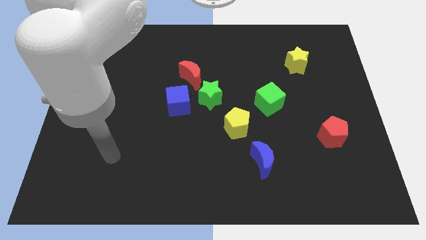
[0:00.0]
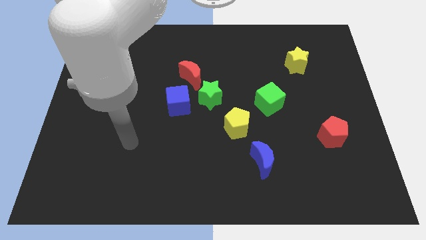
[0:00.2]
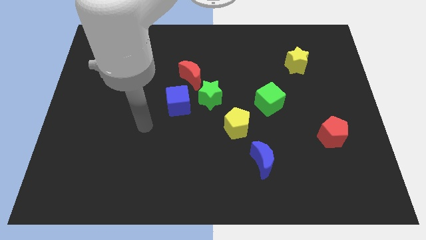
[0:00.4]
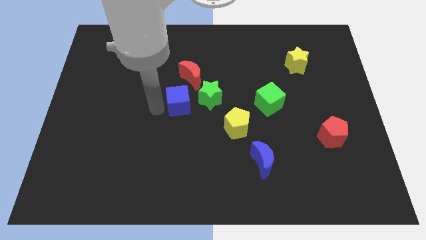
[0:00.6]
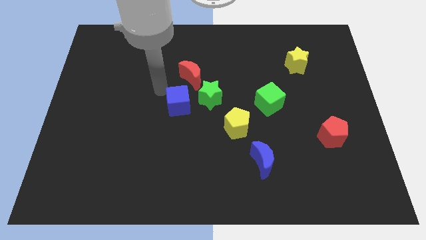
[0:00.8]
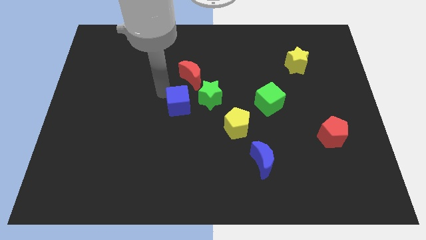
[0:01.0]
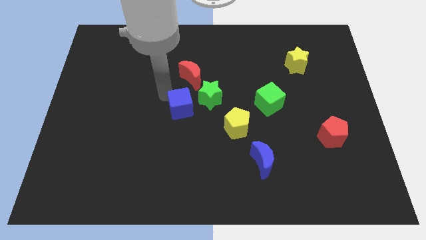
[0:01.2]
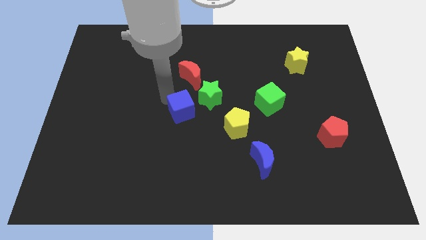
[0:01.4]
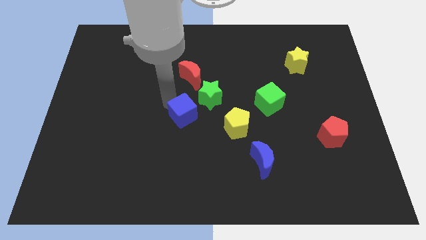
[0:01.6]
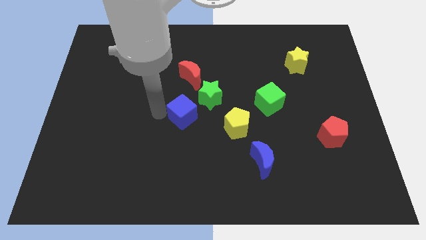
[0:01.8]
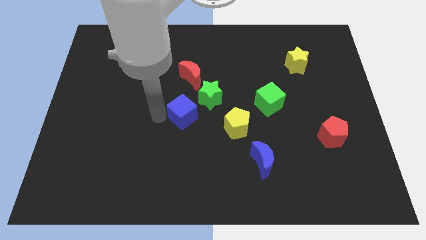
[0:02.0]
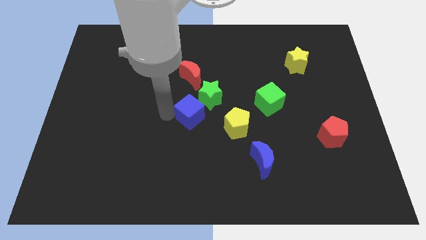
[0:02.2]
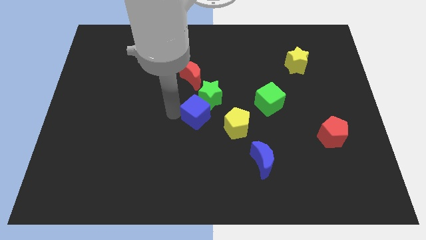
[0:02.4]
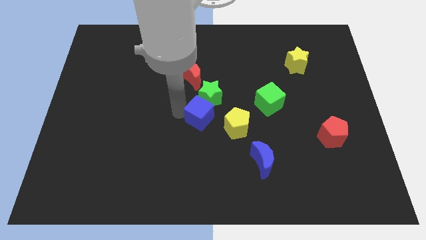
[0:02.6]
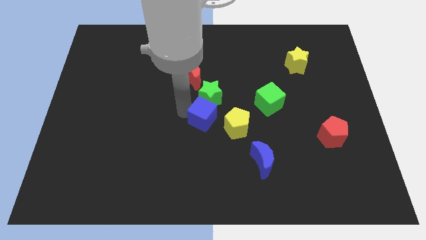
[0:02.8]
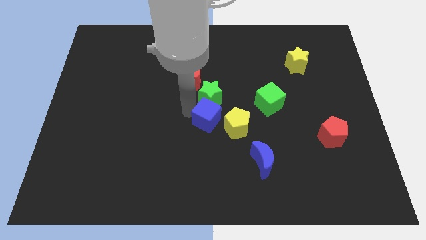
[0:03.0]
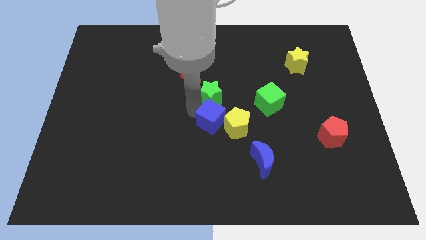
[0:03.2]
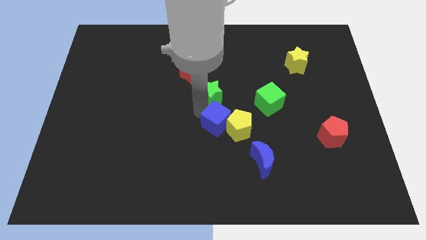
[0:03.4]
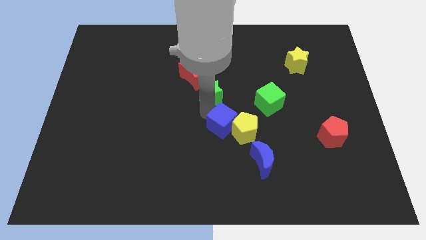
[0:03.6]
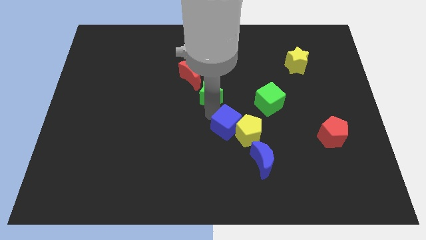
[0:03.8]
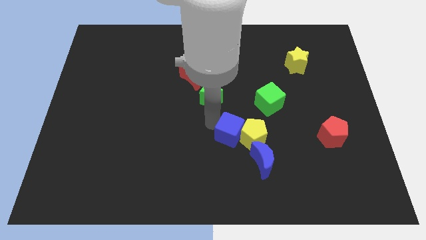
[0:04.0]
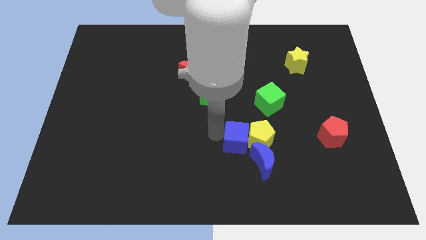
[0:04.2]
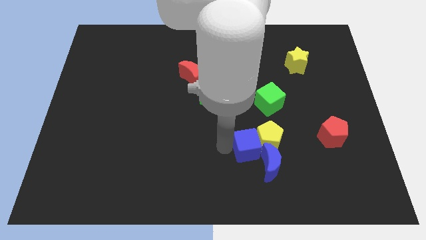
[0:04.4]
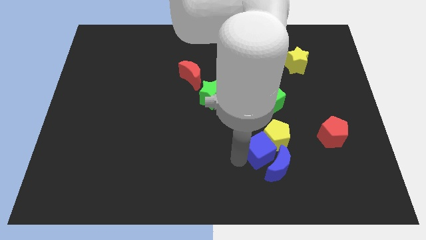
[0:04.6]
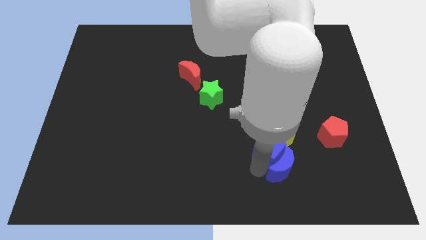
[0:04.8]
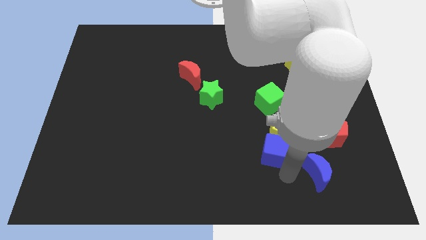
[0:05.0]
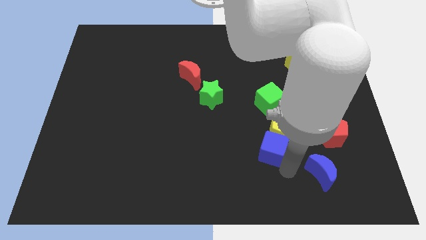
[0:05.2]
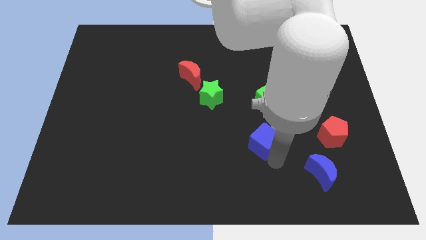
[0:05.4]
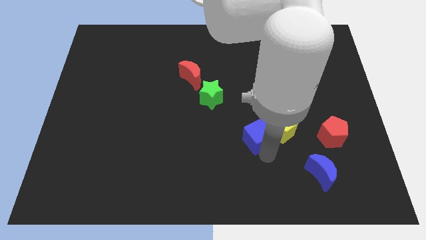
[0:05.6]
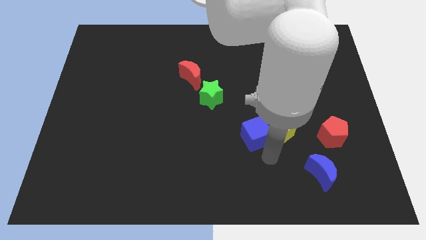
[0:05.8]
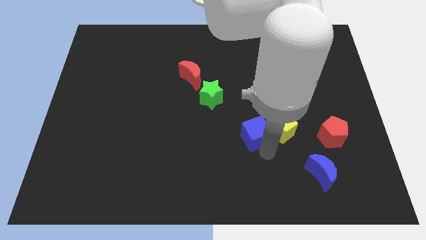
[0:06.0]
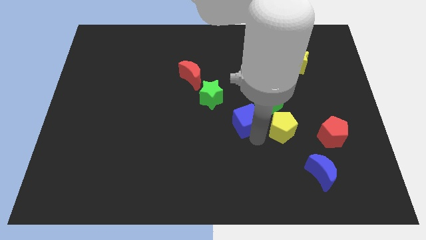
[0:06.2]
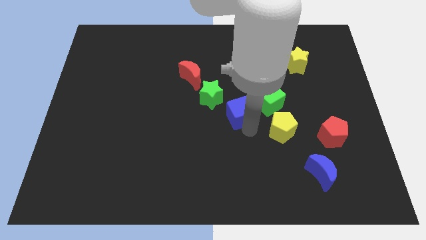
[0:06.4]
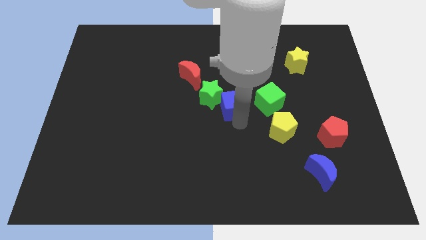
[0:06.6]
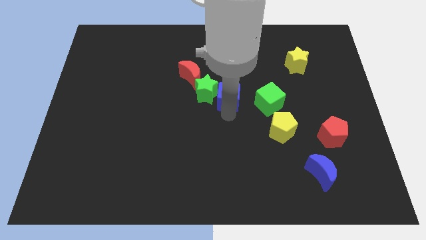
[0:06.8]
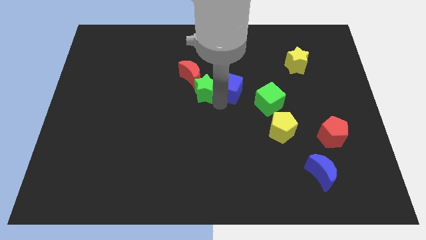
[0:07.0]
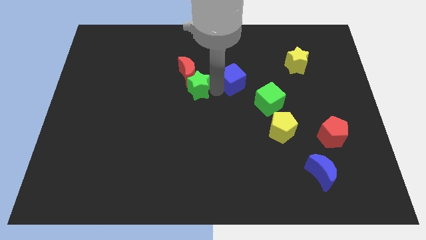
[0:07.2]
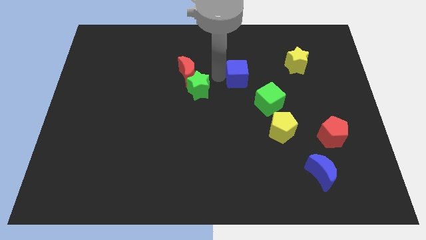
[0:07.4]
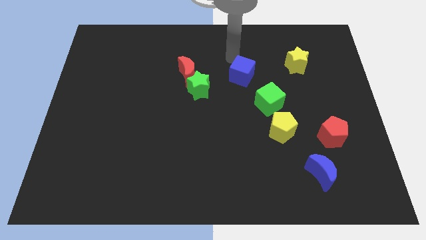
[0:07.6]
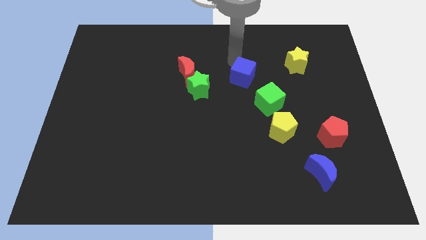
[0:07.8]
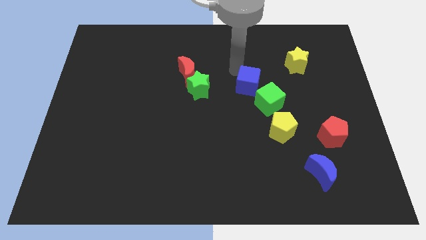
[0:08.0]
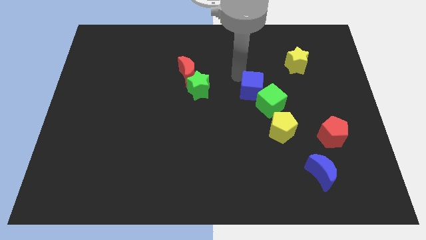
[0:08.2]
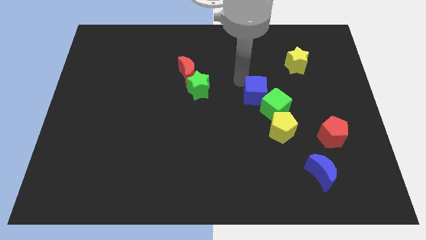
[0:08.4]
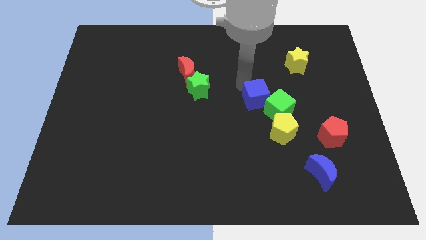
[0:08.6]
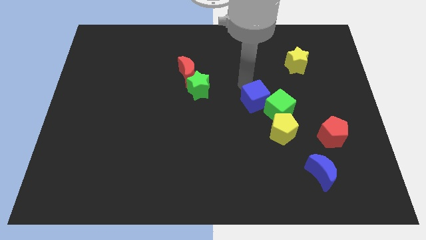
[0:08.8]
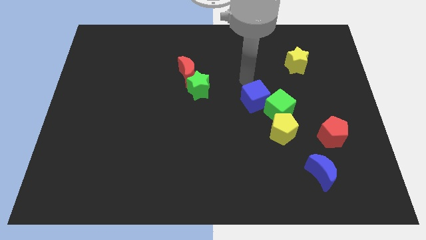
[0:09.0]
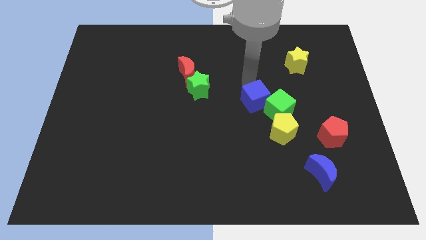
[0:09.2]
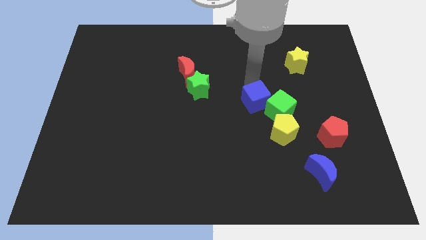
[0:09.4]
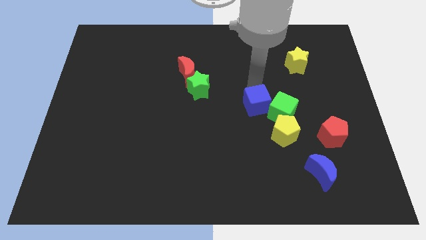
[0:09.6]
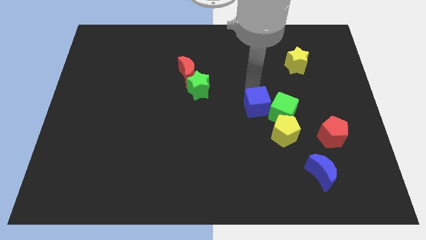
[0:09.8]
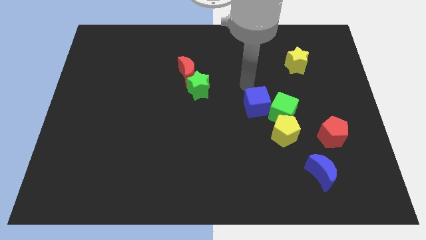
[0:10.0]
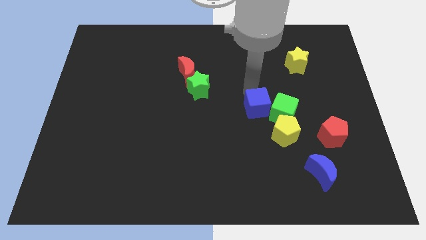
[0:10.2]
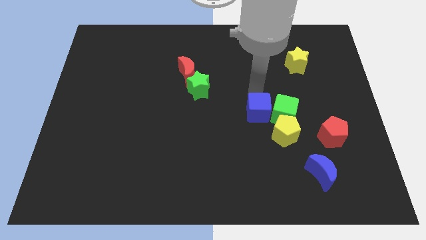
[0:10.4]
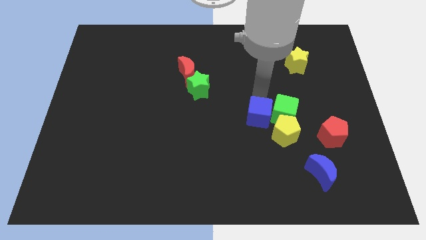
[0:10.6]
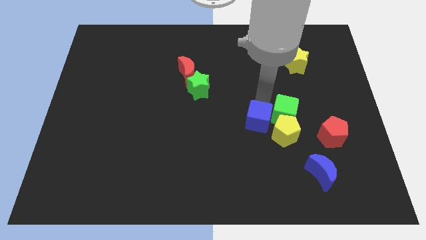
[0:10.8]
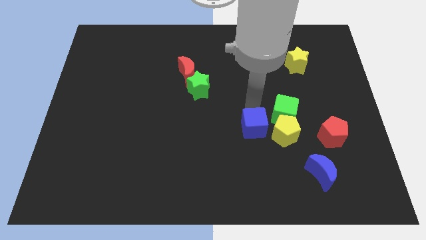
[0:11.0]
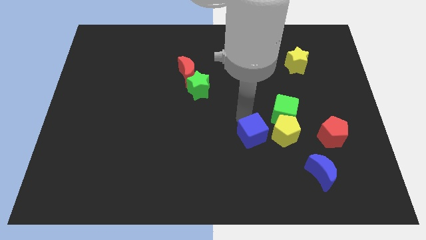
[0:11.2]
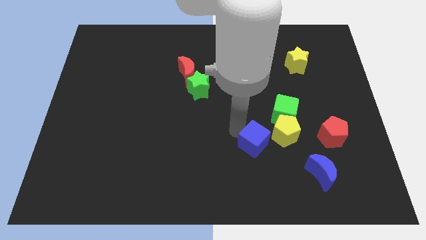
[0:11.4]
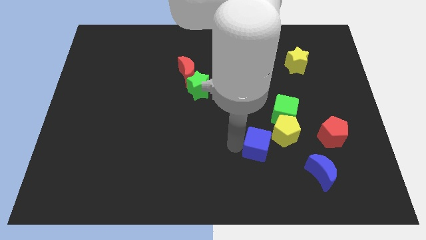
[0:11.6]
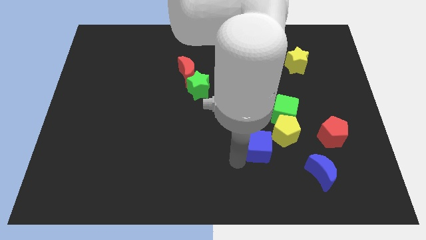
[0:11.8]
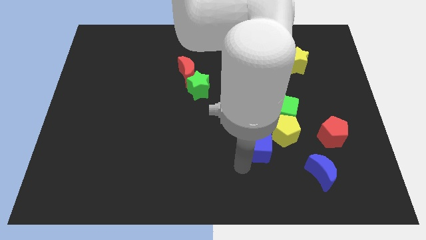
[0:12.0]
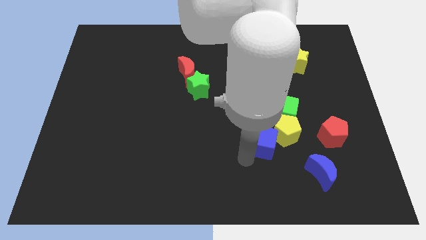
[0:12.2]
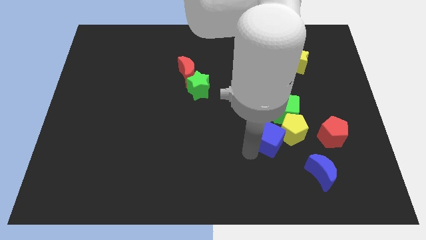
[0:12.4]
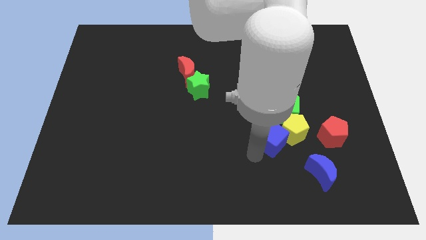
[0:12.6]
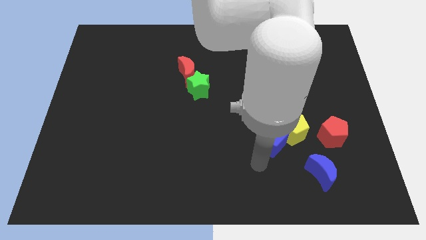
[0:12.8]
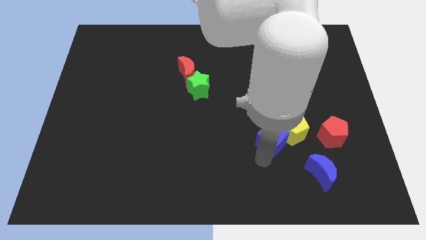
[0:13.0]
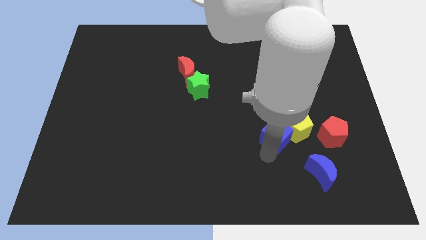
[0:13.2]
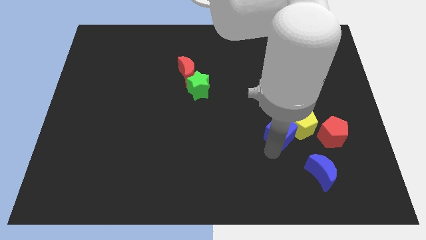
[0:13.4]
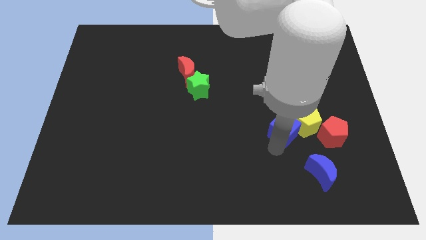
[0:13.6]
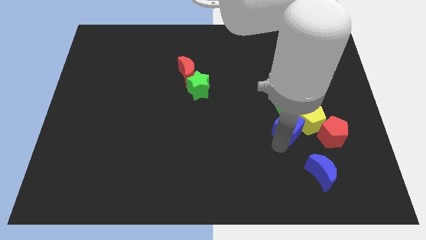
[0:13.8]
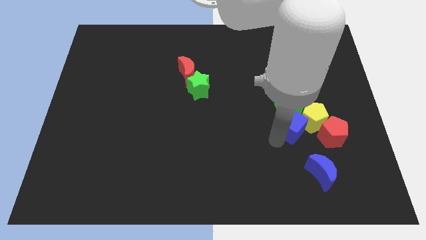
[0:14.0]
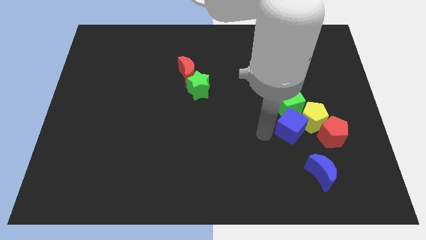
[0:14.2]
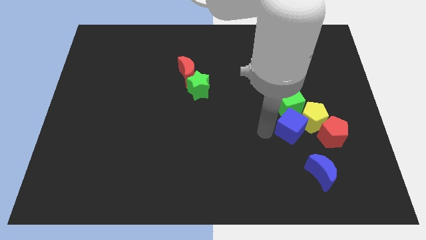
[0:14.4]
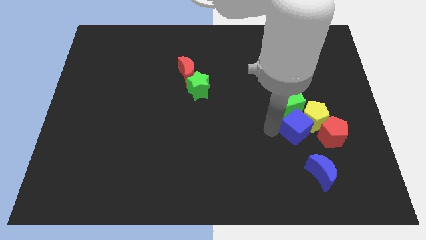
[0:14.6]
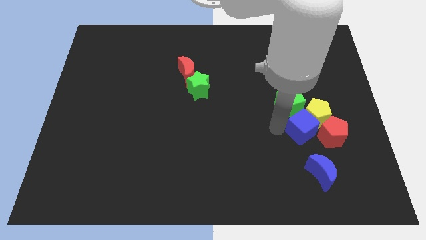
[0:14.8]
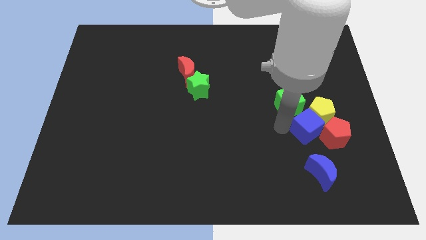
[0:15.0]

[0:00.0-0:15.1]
push the blue cube next to the red pentagon
